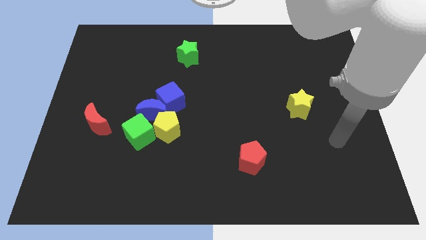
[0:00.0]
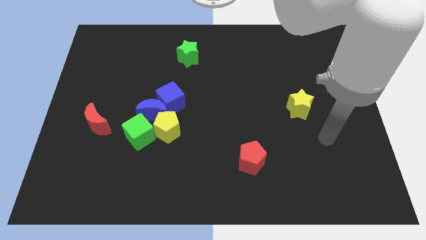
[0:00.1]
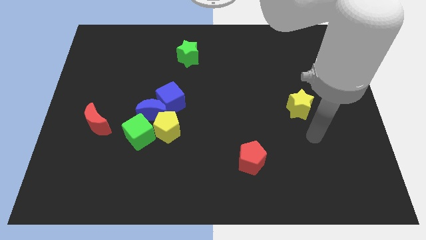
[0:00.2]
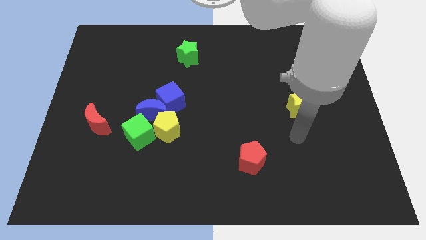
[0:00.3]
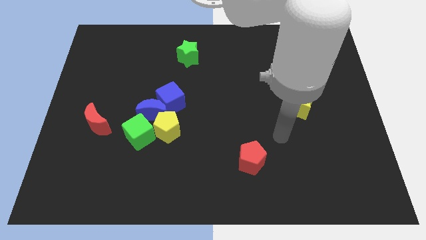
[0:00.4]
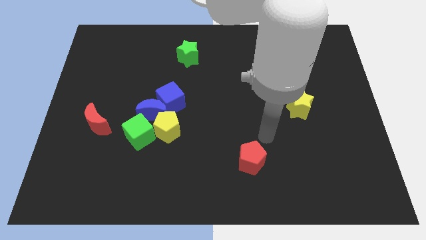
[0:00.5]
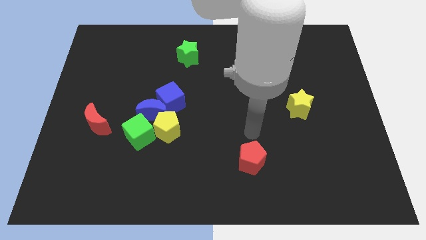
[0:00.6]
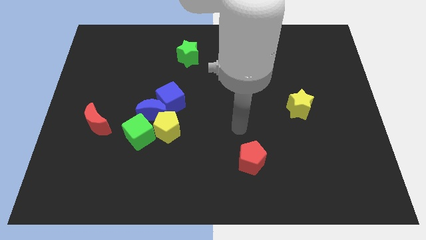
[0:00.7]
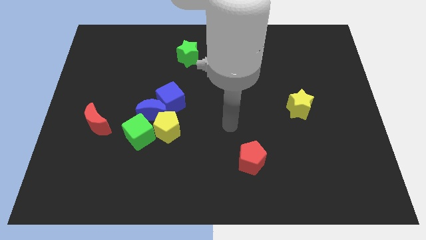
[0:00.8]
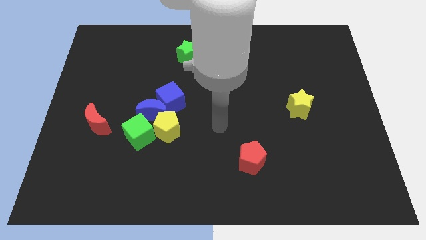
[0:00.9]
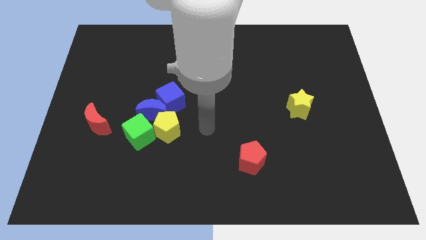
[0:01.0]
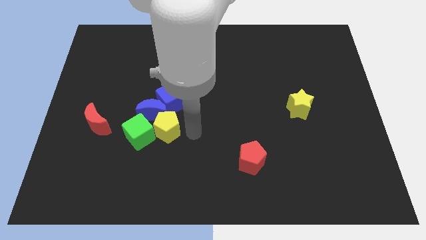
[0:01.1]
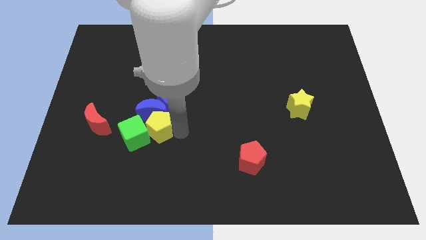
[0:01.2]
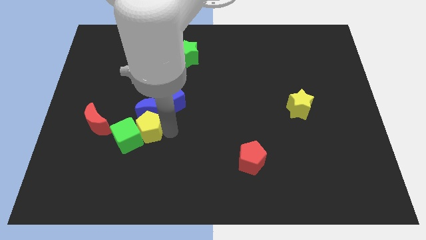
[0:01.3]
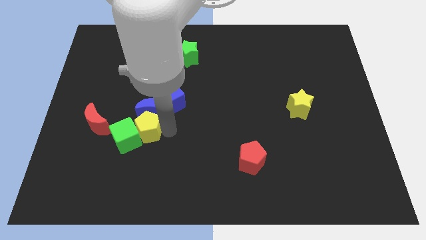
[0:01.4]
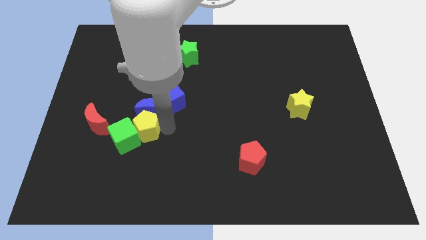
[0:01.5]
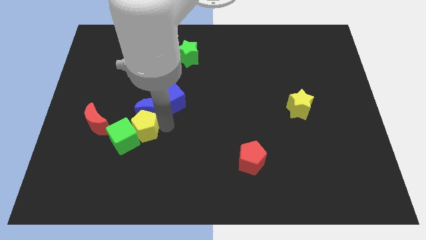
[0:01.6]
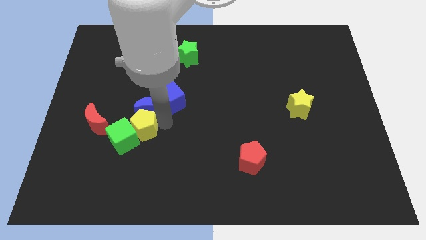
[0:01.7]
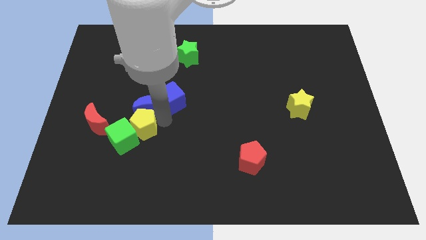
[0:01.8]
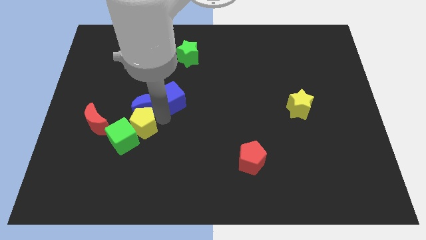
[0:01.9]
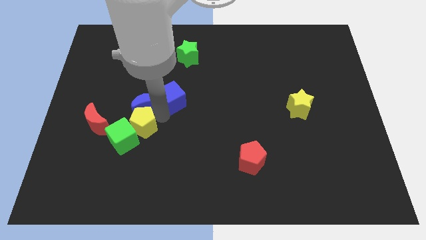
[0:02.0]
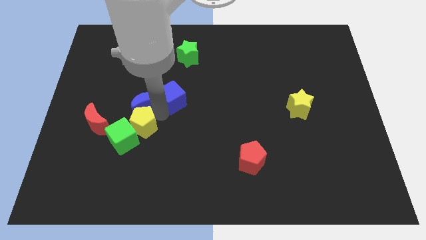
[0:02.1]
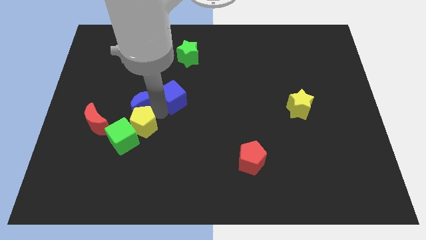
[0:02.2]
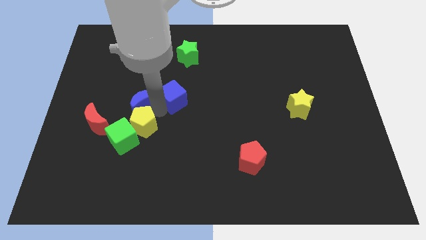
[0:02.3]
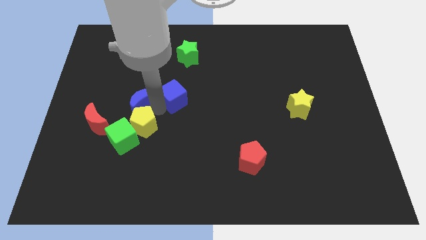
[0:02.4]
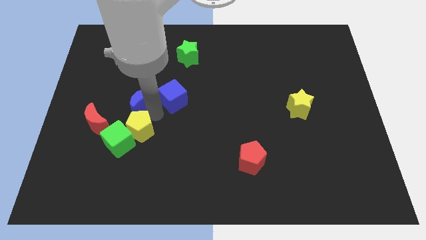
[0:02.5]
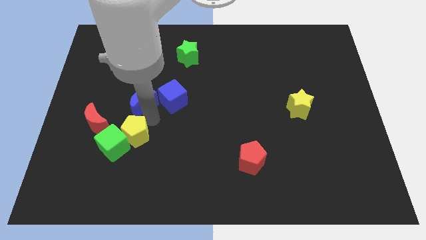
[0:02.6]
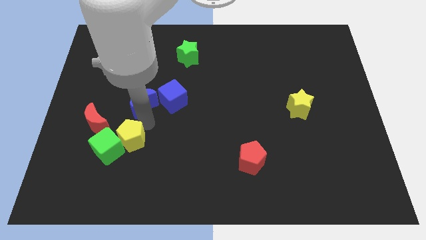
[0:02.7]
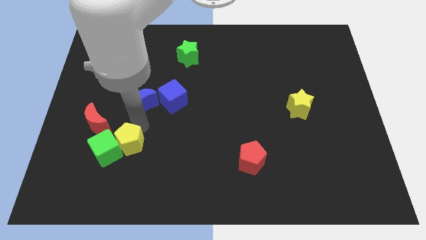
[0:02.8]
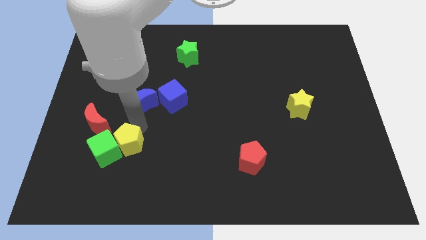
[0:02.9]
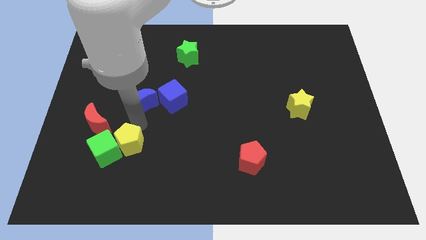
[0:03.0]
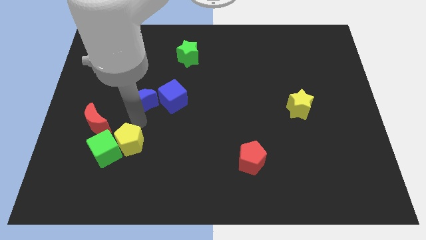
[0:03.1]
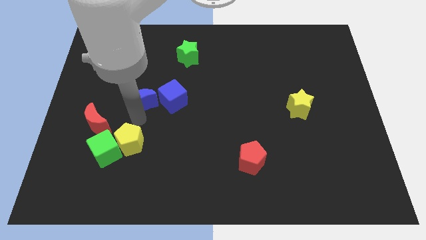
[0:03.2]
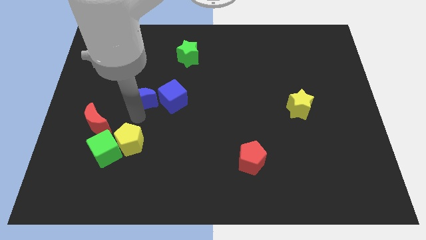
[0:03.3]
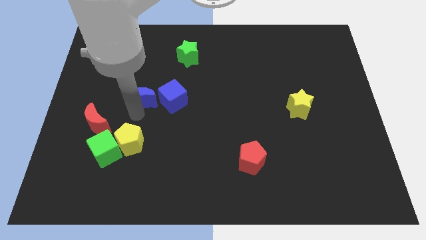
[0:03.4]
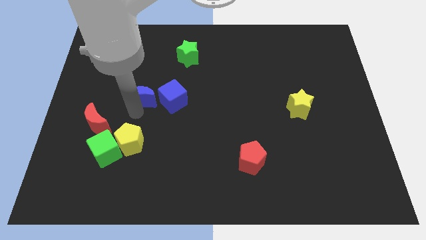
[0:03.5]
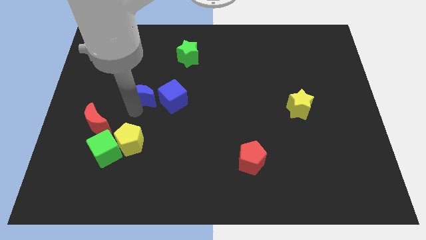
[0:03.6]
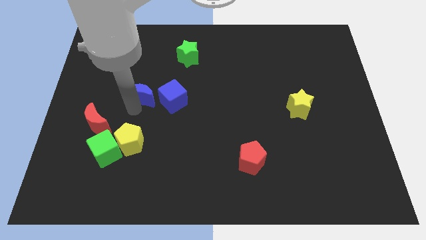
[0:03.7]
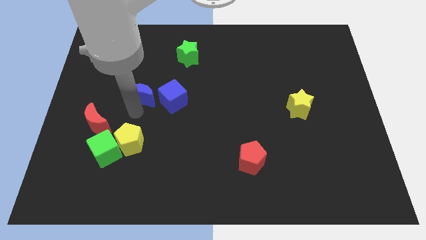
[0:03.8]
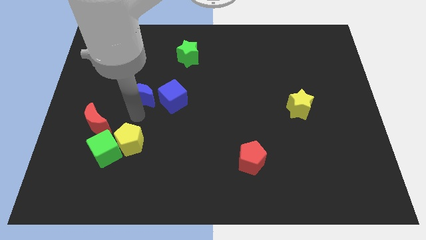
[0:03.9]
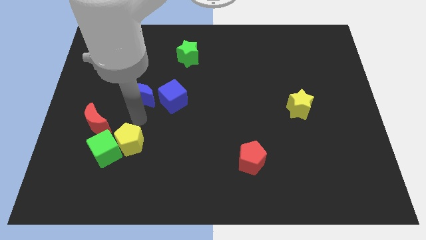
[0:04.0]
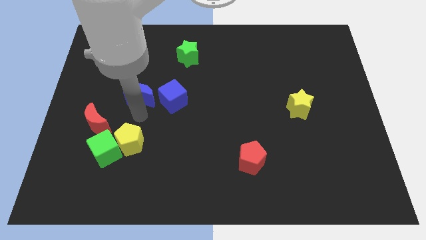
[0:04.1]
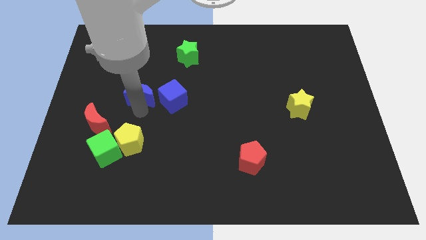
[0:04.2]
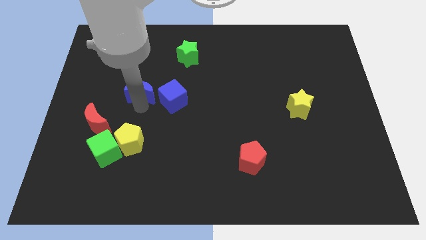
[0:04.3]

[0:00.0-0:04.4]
pull the blue moon apart from the blue cube, yellow pentagon, and green cube

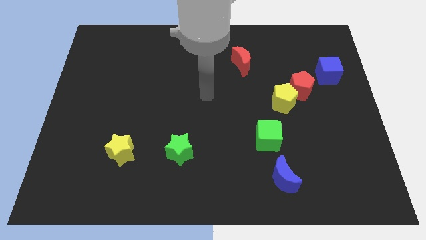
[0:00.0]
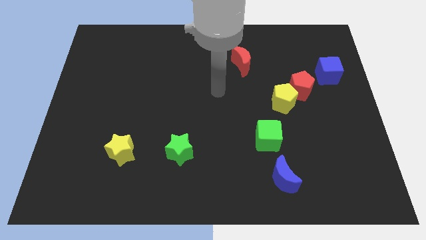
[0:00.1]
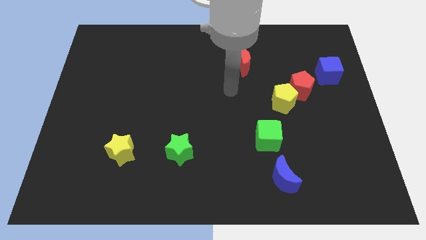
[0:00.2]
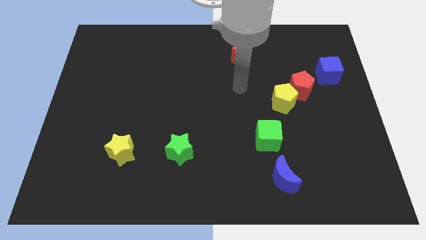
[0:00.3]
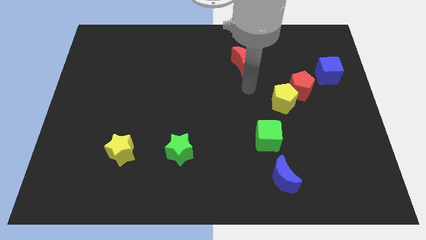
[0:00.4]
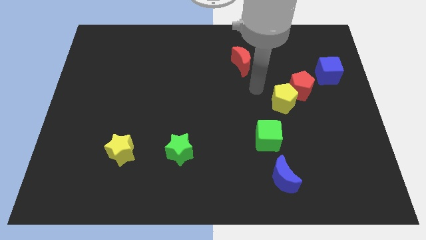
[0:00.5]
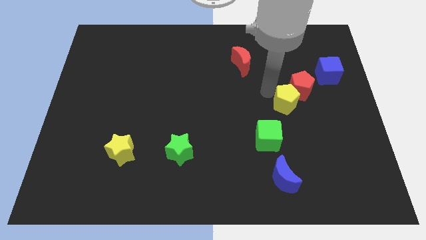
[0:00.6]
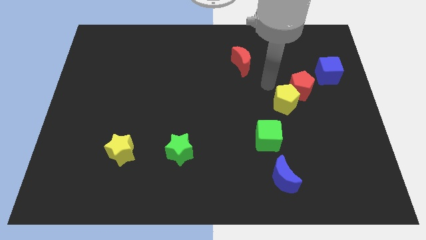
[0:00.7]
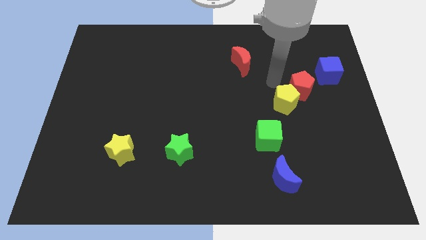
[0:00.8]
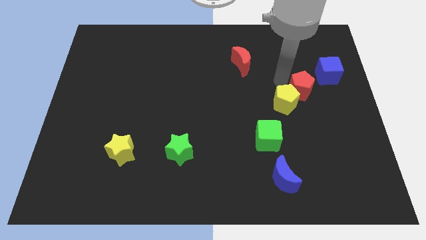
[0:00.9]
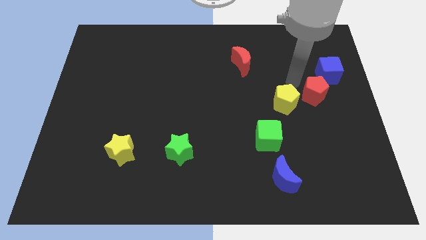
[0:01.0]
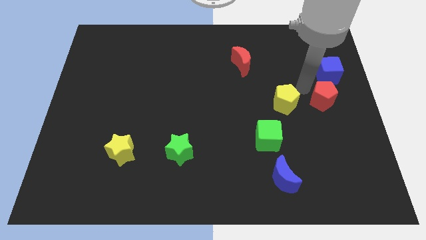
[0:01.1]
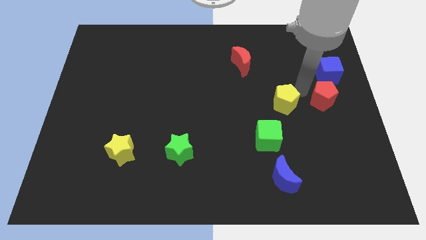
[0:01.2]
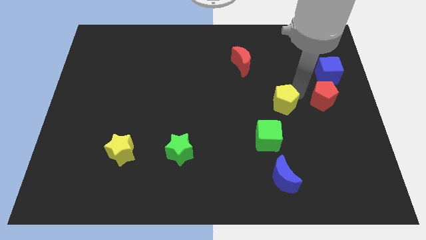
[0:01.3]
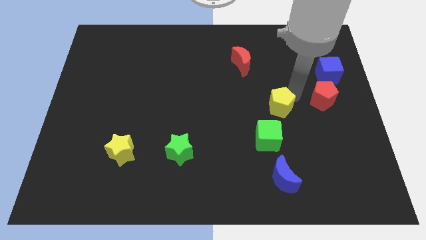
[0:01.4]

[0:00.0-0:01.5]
move the yellow pentagon away from the red pentagon

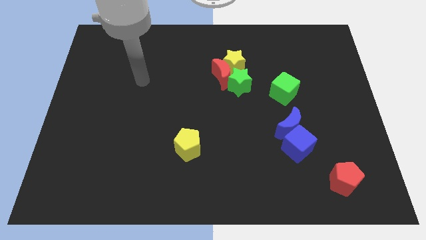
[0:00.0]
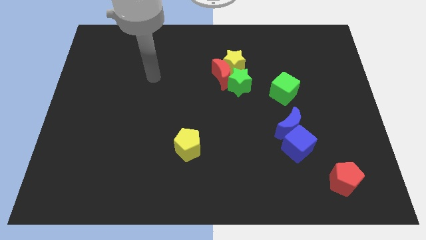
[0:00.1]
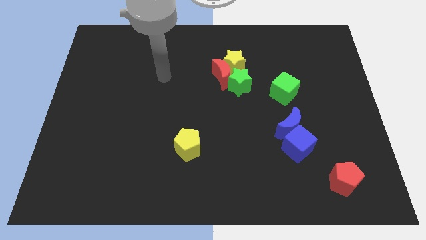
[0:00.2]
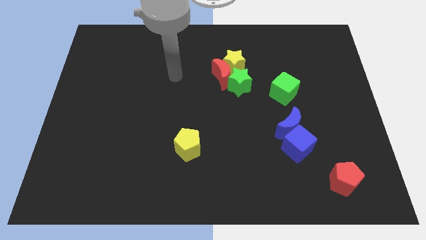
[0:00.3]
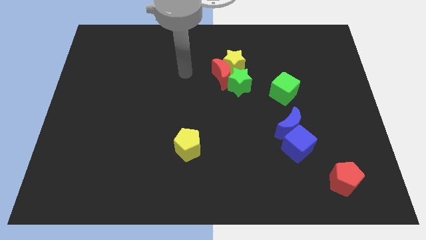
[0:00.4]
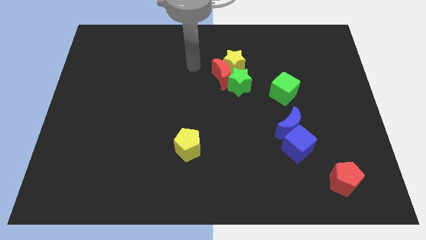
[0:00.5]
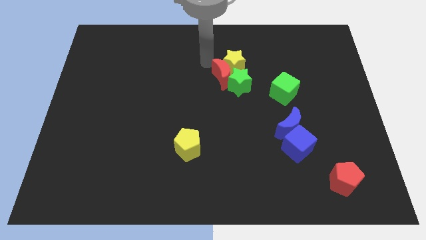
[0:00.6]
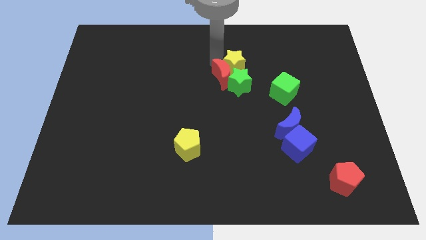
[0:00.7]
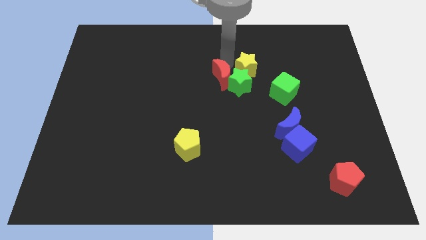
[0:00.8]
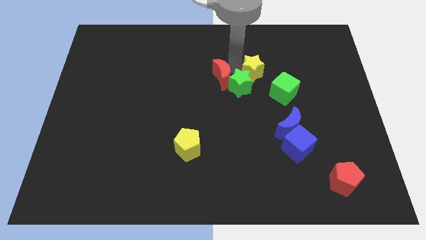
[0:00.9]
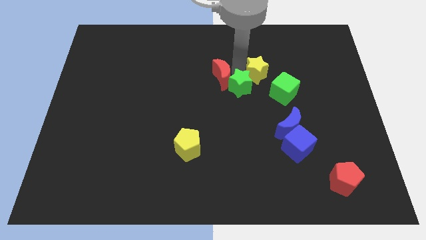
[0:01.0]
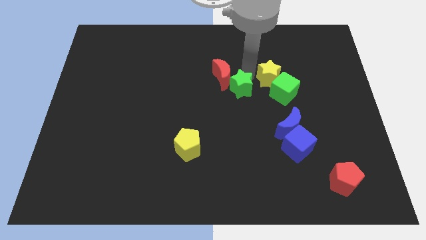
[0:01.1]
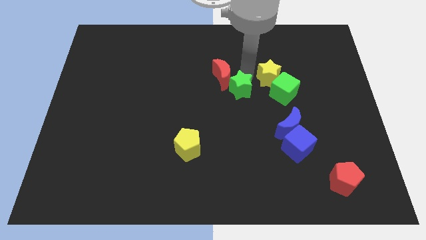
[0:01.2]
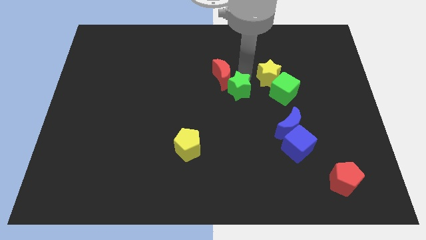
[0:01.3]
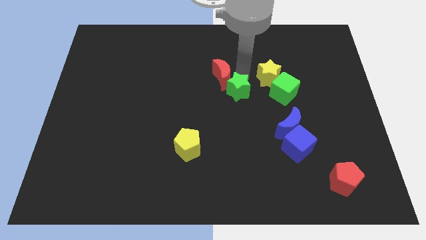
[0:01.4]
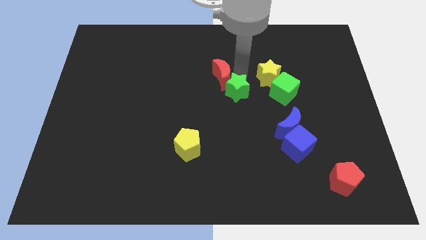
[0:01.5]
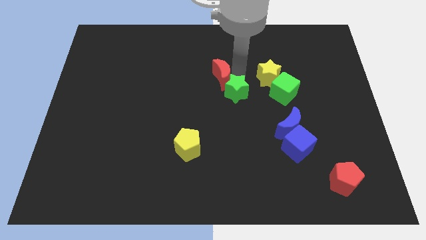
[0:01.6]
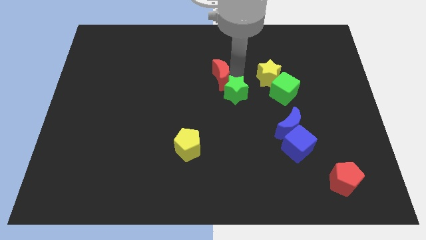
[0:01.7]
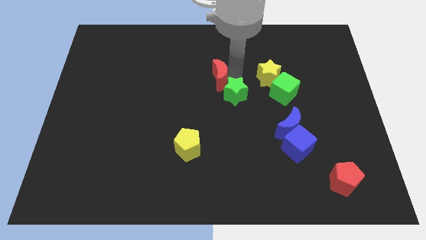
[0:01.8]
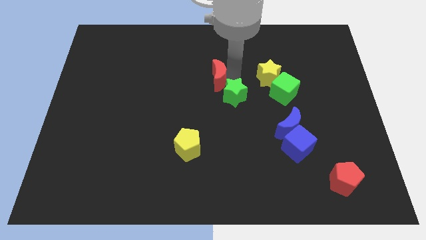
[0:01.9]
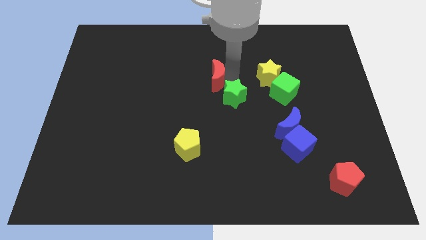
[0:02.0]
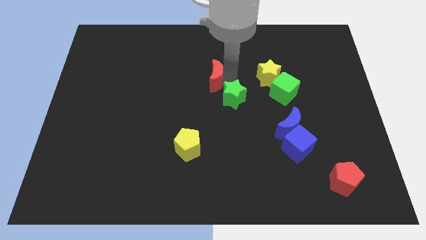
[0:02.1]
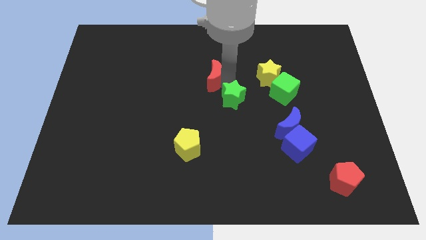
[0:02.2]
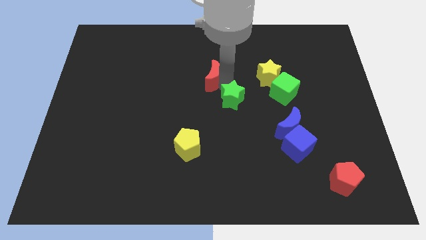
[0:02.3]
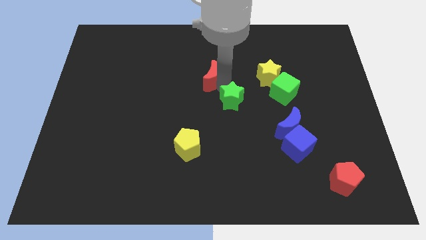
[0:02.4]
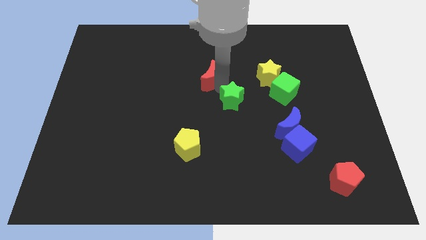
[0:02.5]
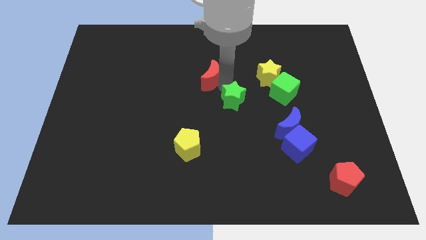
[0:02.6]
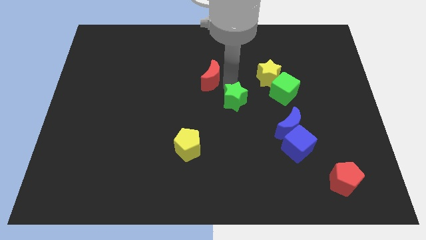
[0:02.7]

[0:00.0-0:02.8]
pull the red moon apart from the yellow star and green star

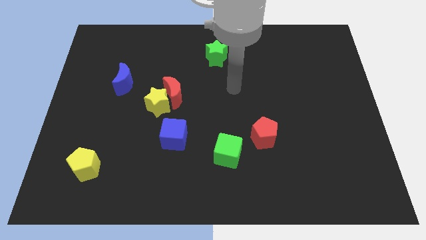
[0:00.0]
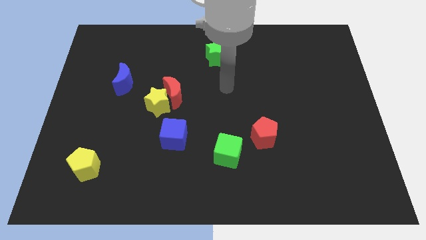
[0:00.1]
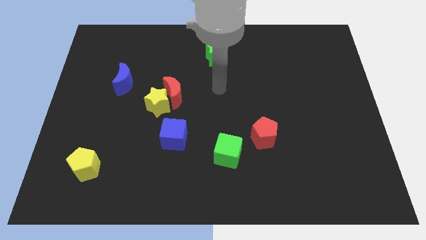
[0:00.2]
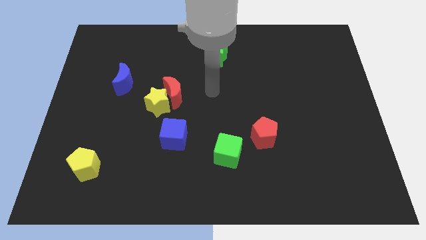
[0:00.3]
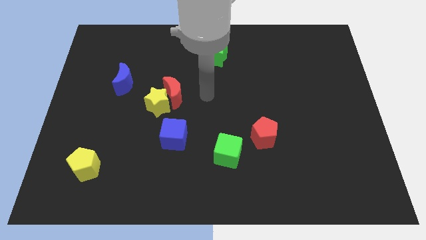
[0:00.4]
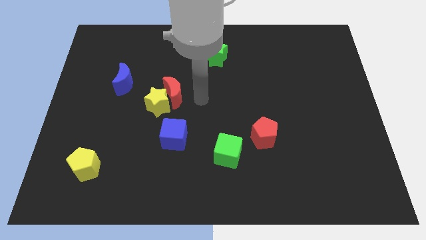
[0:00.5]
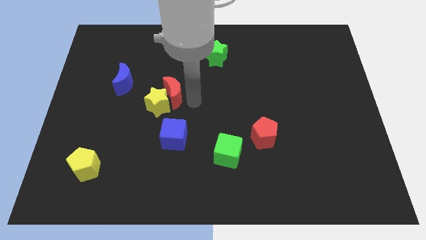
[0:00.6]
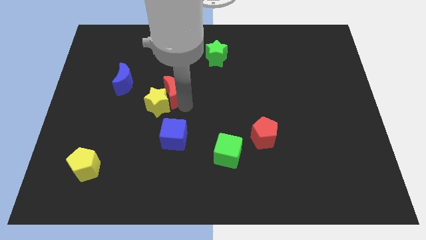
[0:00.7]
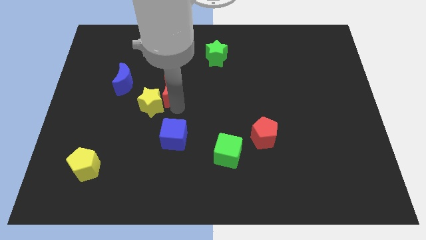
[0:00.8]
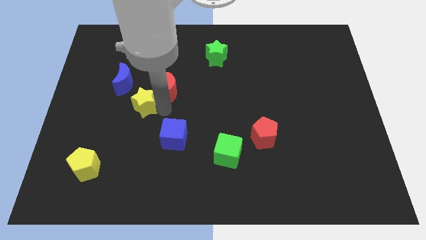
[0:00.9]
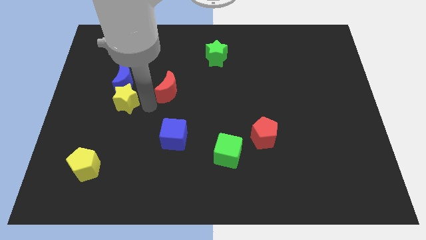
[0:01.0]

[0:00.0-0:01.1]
move the red moon away from the yellow star
